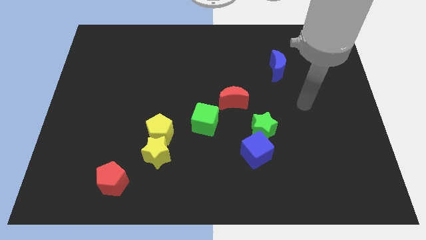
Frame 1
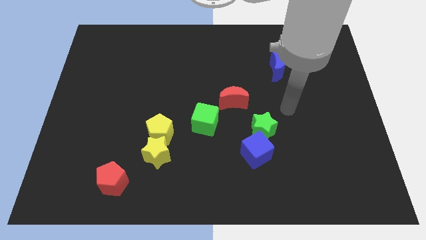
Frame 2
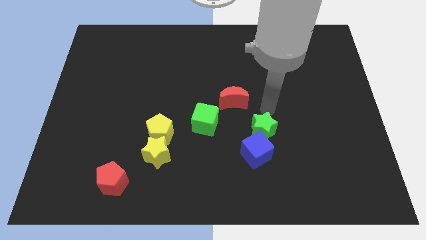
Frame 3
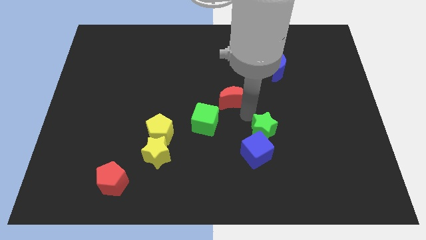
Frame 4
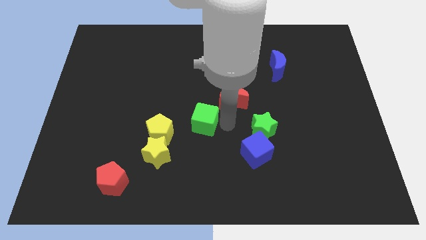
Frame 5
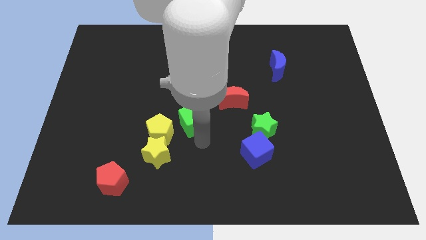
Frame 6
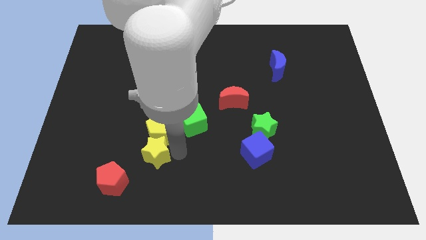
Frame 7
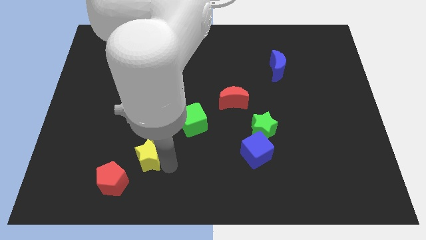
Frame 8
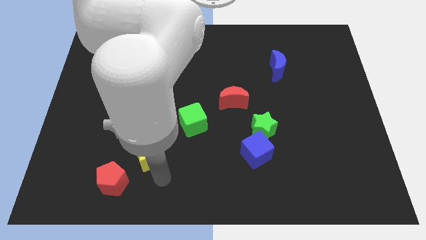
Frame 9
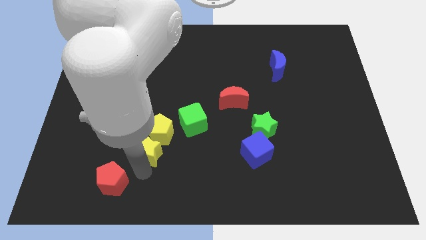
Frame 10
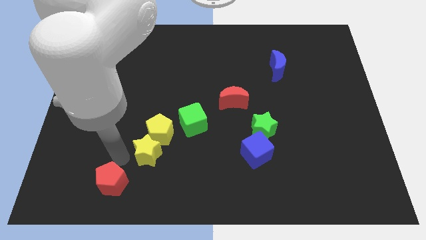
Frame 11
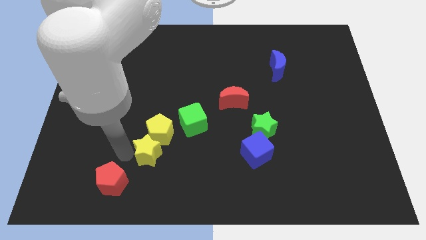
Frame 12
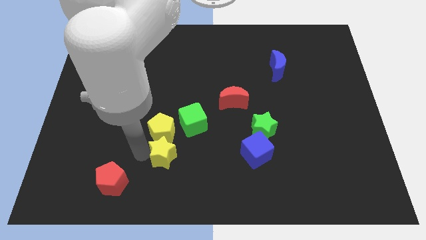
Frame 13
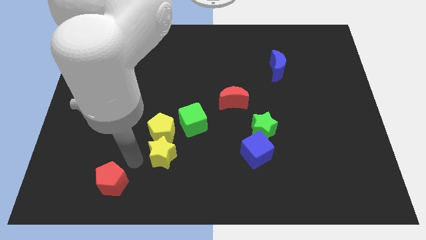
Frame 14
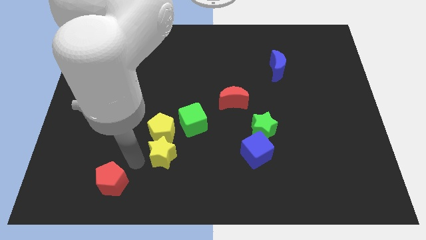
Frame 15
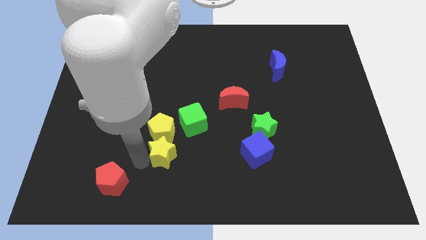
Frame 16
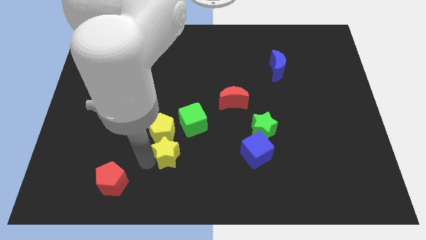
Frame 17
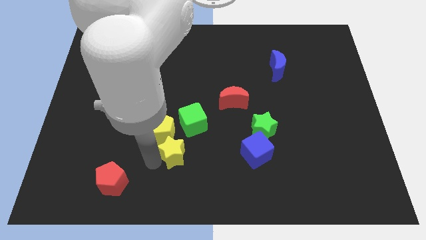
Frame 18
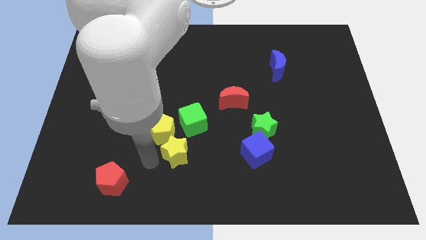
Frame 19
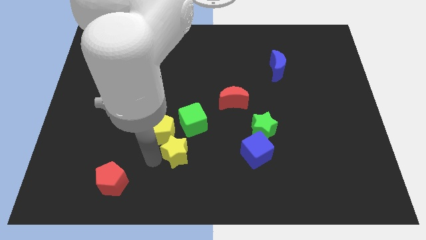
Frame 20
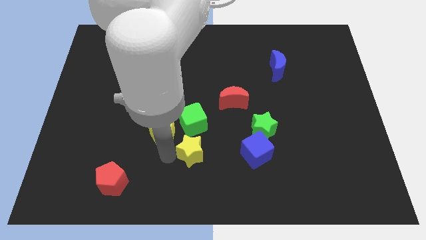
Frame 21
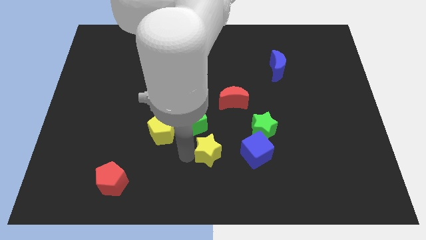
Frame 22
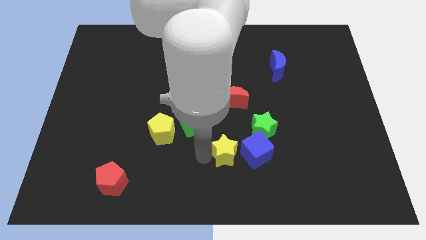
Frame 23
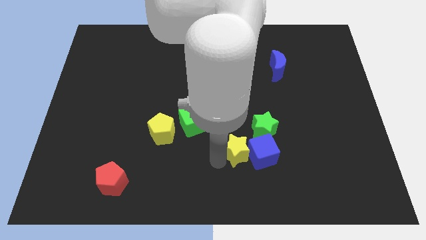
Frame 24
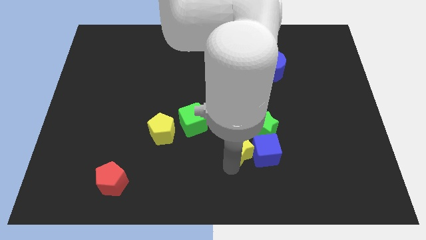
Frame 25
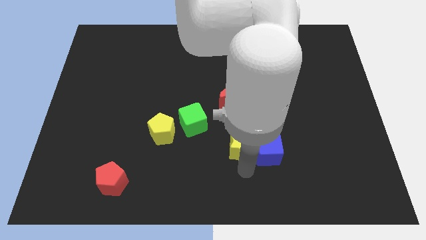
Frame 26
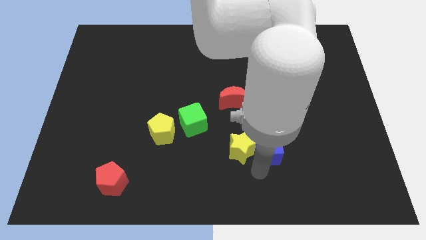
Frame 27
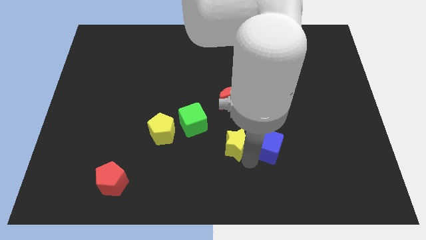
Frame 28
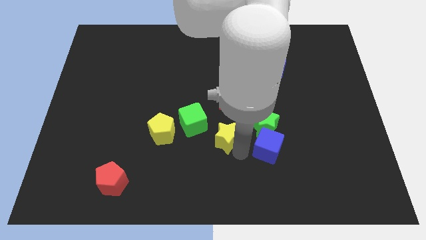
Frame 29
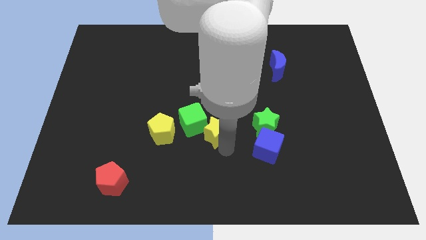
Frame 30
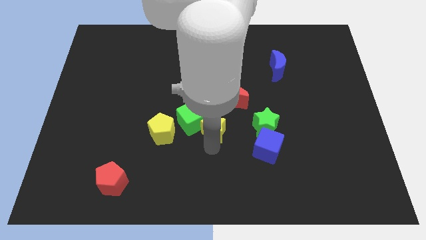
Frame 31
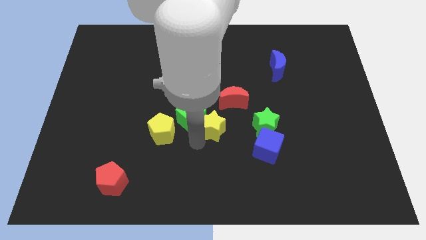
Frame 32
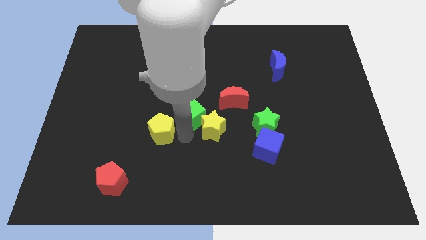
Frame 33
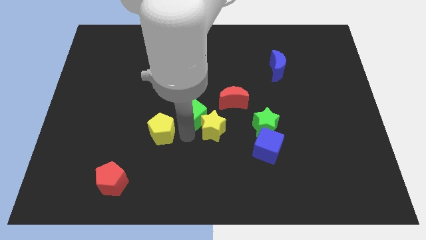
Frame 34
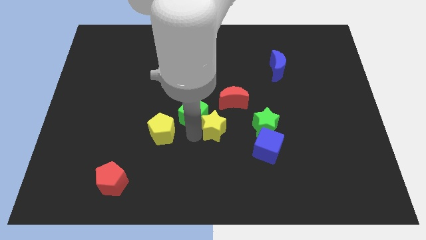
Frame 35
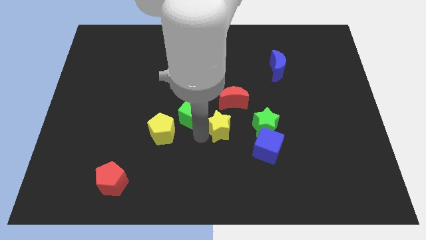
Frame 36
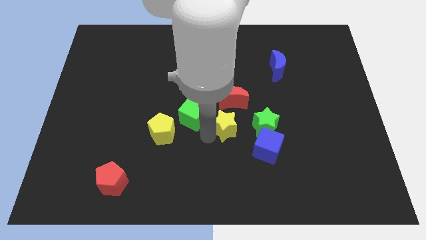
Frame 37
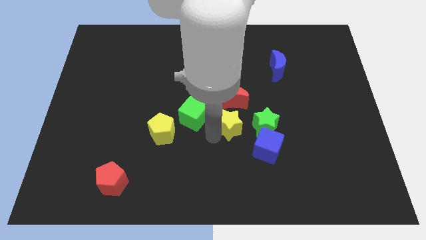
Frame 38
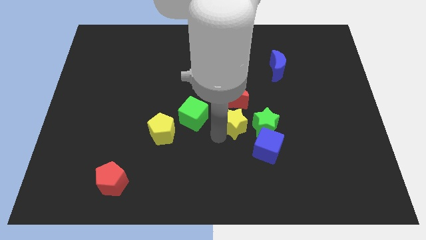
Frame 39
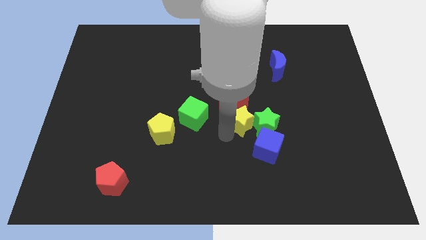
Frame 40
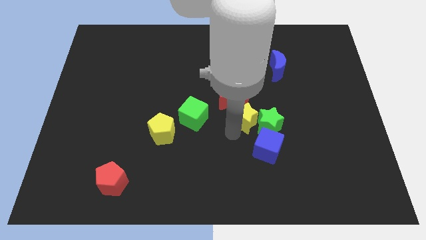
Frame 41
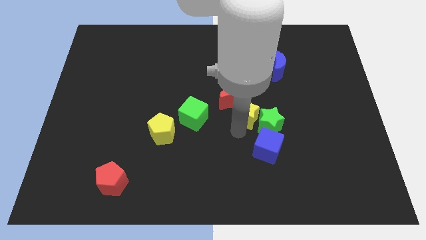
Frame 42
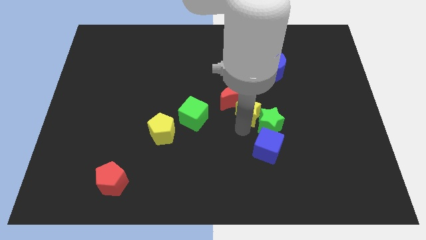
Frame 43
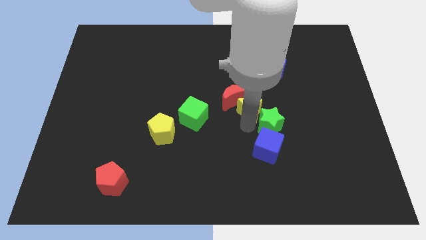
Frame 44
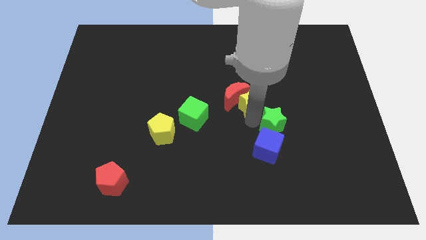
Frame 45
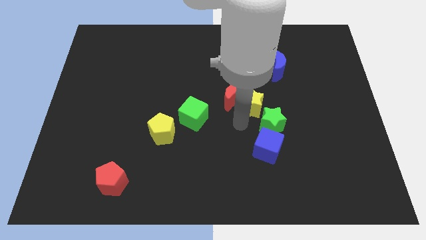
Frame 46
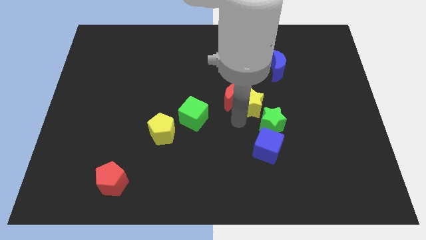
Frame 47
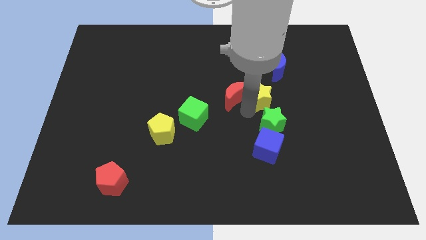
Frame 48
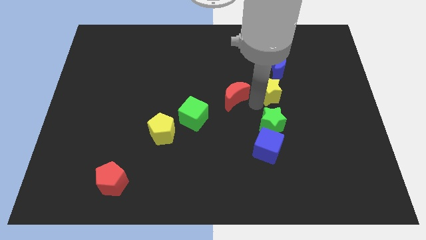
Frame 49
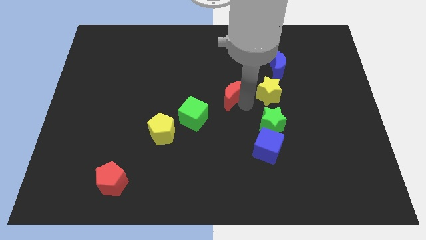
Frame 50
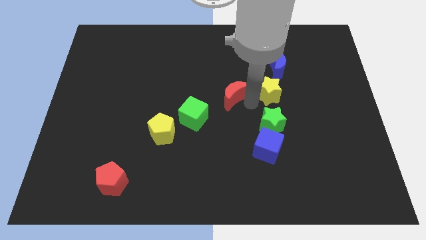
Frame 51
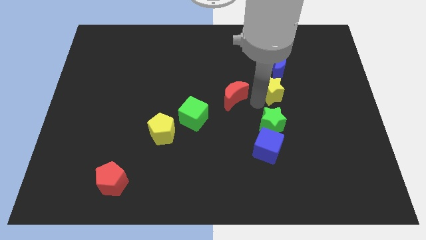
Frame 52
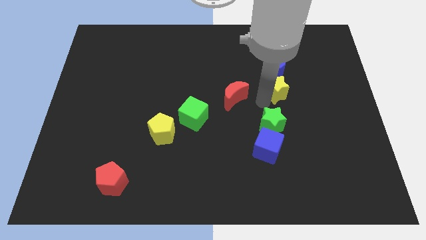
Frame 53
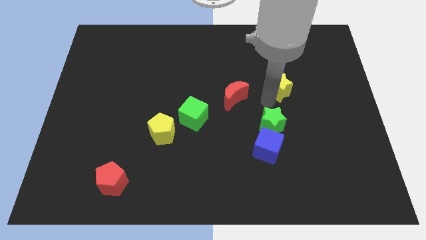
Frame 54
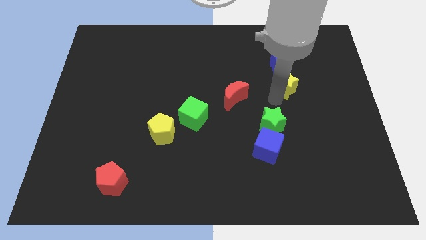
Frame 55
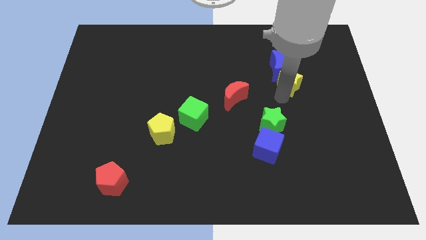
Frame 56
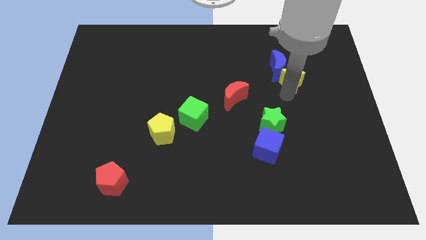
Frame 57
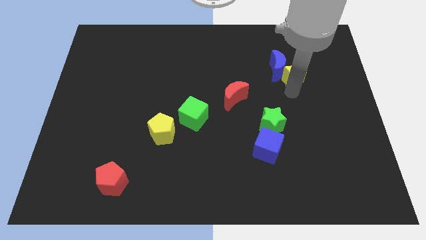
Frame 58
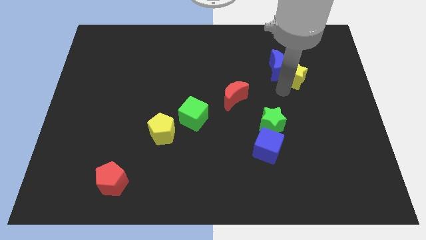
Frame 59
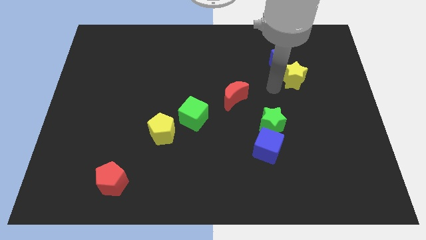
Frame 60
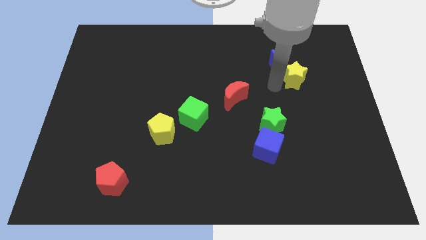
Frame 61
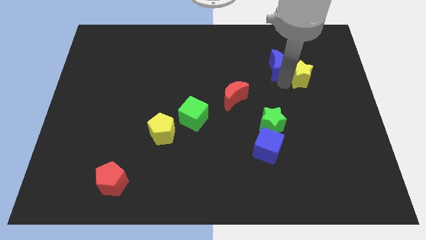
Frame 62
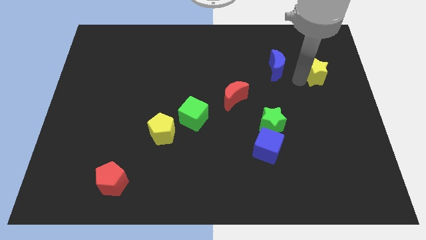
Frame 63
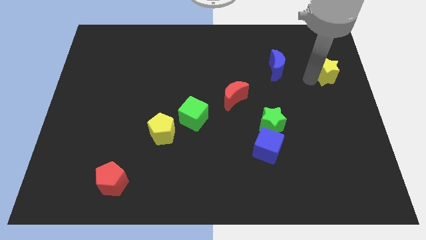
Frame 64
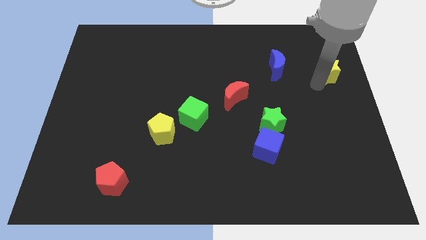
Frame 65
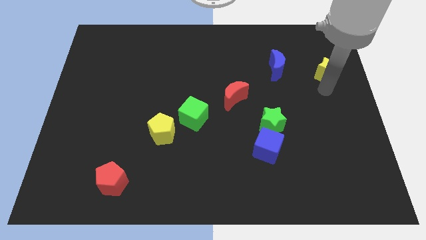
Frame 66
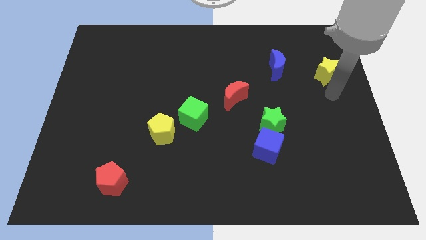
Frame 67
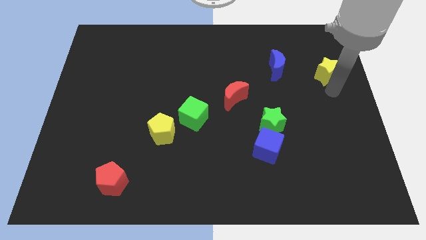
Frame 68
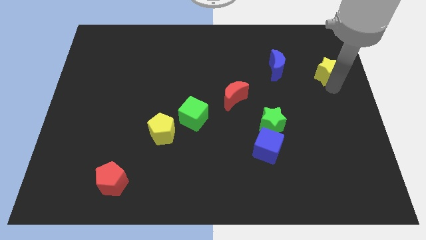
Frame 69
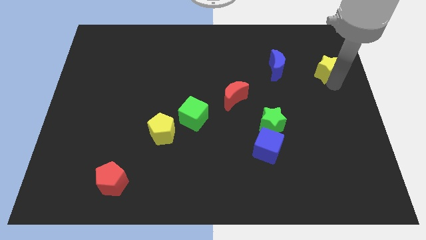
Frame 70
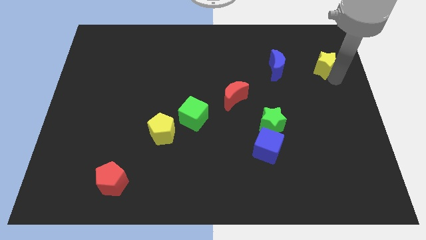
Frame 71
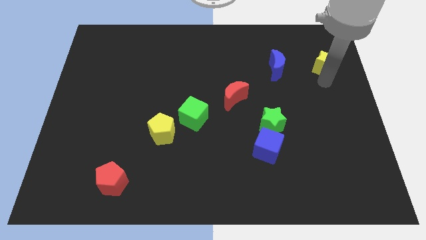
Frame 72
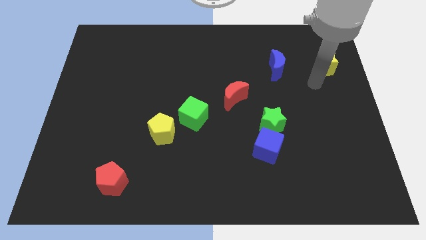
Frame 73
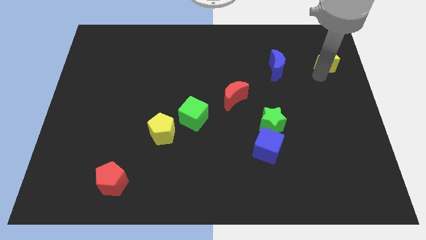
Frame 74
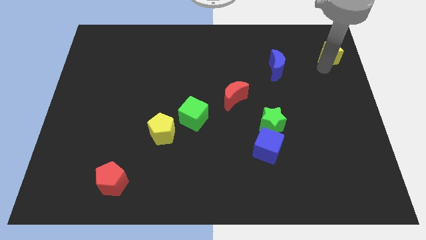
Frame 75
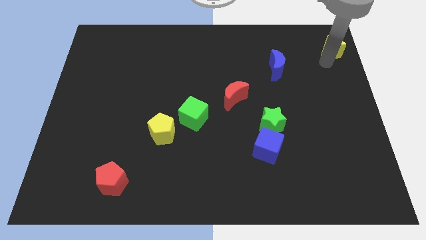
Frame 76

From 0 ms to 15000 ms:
slide the yellow star to the upper right corner
